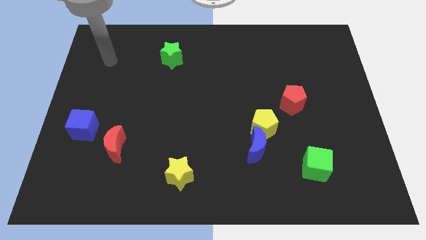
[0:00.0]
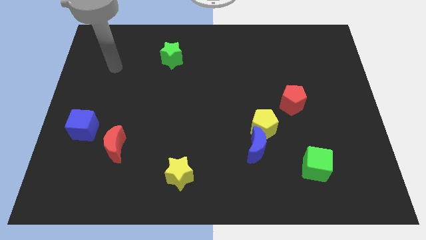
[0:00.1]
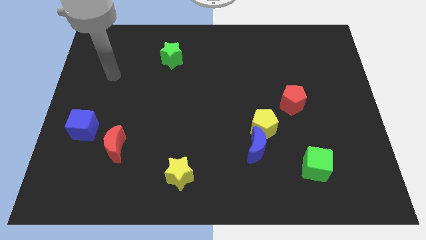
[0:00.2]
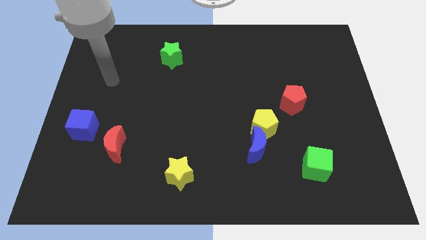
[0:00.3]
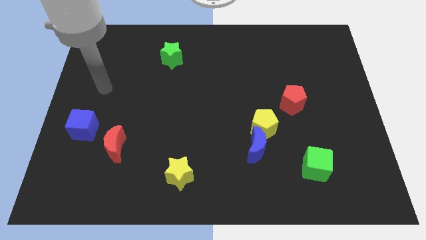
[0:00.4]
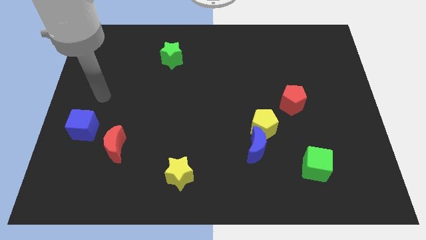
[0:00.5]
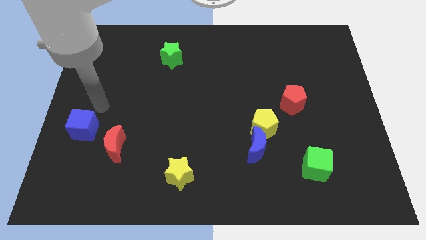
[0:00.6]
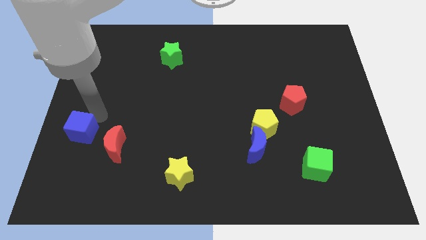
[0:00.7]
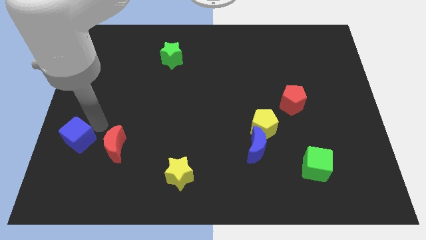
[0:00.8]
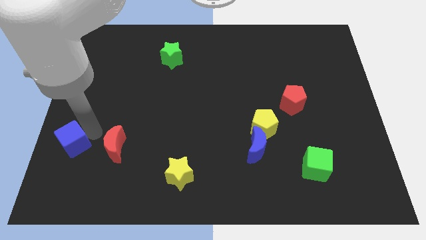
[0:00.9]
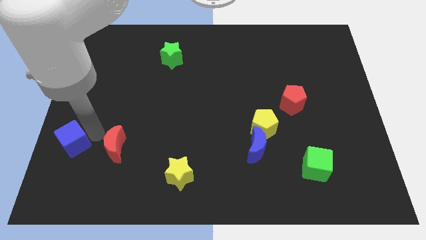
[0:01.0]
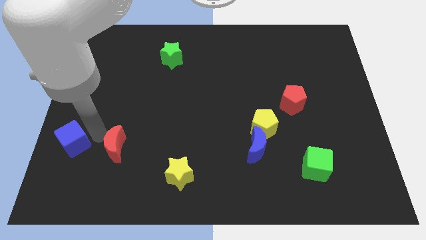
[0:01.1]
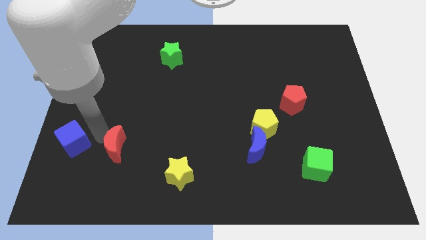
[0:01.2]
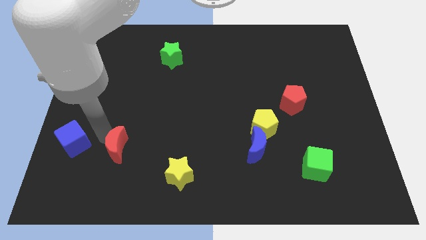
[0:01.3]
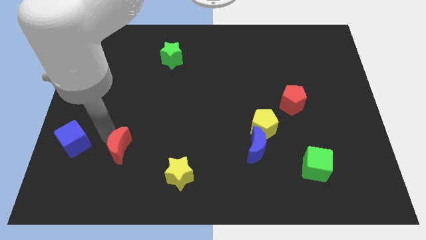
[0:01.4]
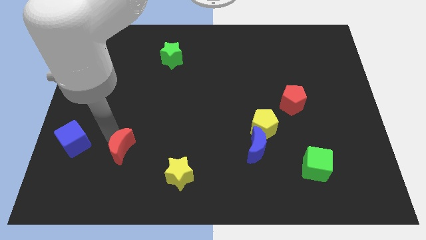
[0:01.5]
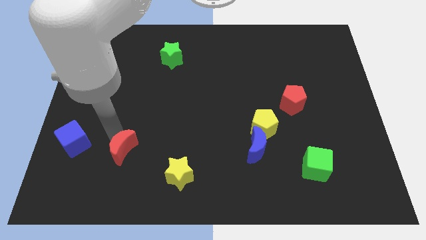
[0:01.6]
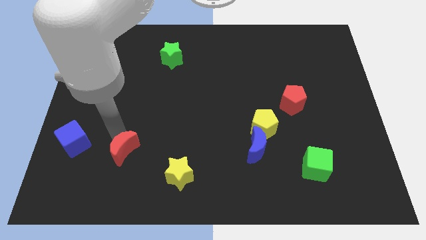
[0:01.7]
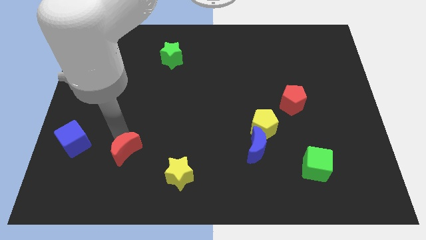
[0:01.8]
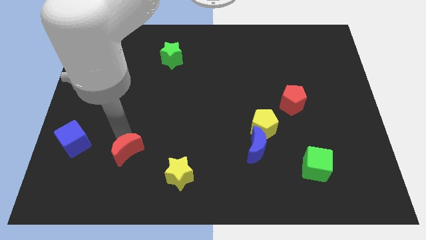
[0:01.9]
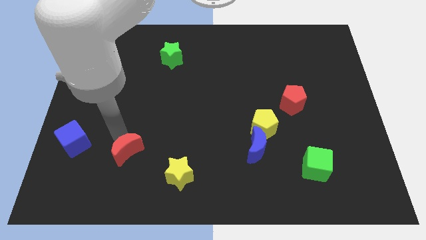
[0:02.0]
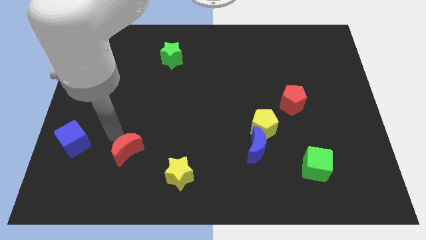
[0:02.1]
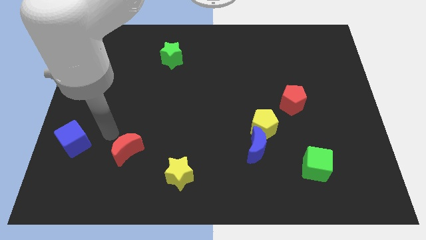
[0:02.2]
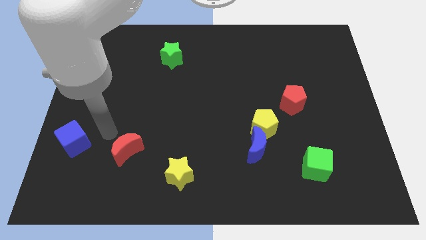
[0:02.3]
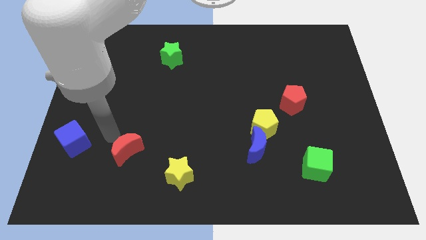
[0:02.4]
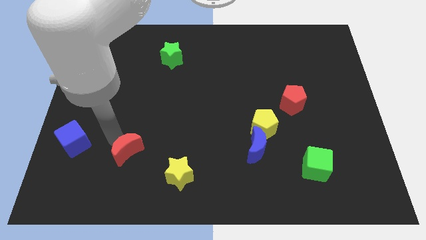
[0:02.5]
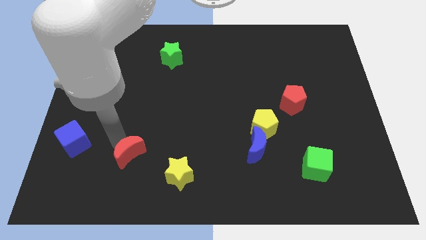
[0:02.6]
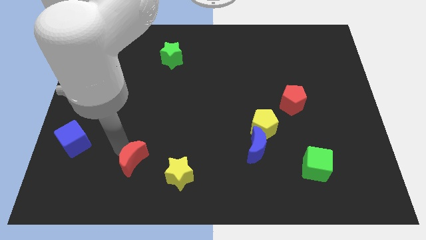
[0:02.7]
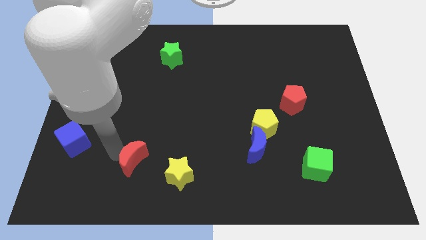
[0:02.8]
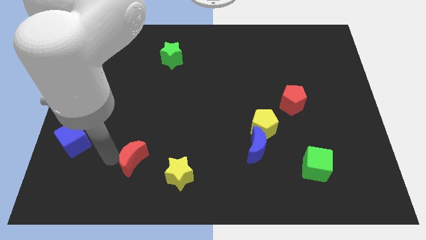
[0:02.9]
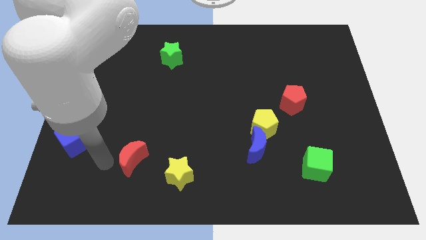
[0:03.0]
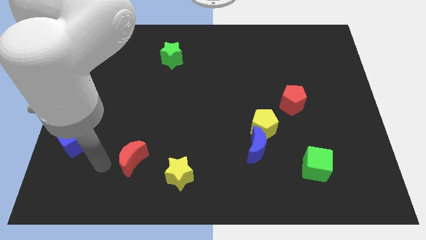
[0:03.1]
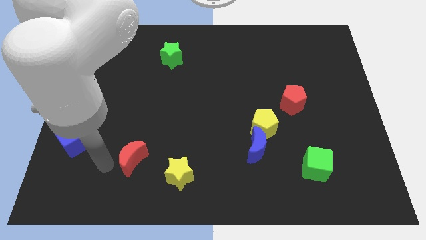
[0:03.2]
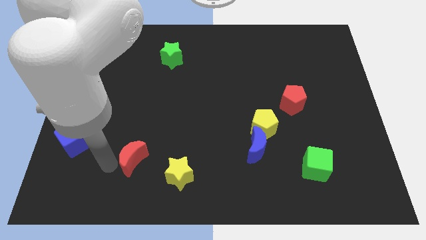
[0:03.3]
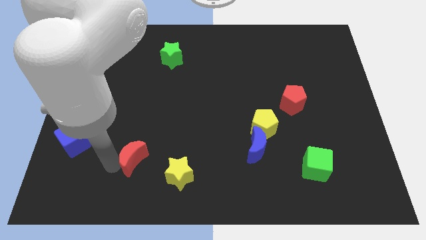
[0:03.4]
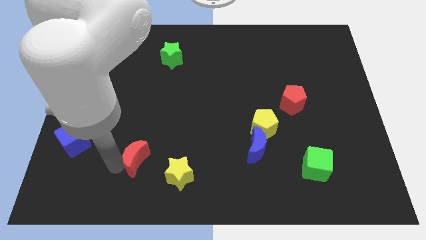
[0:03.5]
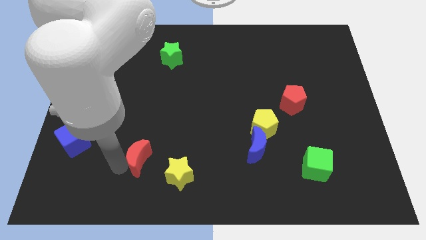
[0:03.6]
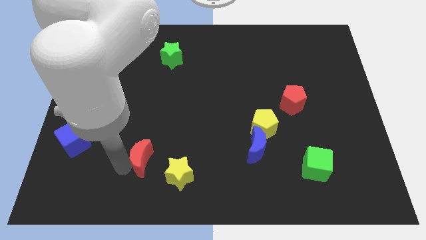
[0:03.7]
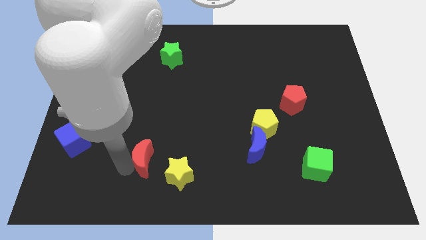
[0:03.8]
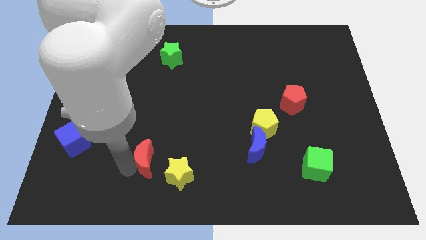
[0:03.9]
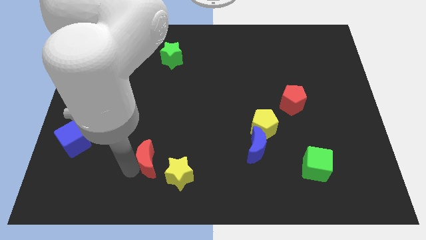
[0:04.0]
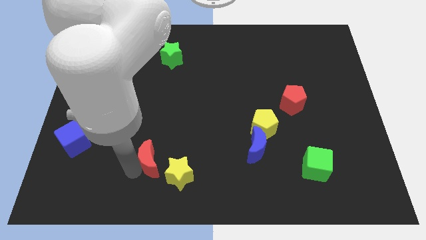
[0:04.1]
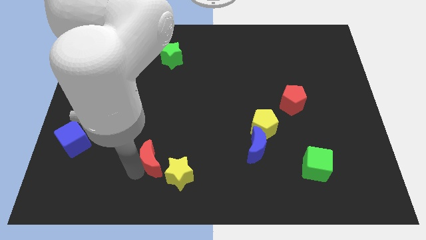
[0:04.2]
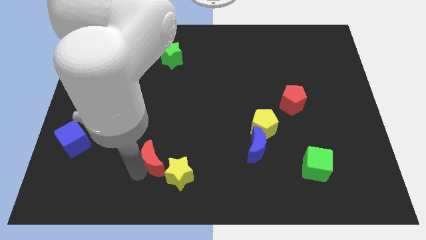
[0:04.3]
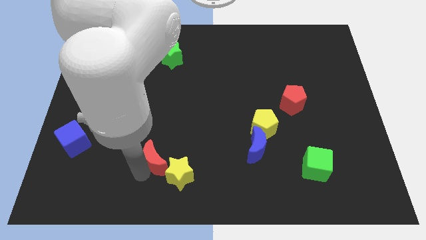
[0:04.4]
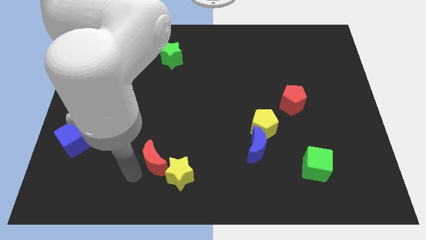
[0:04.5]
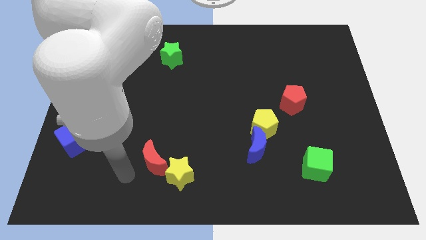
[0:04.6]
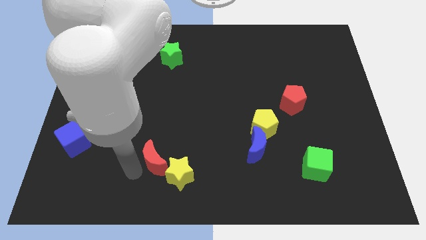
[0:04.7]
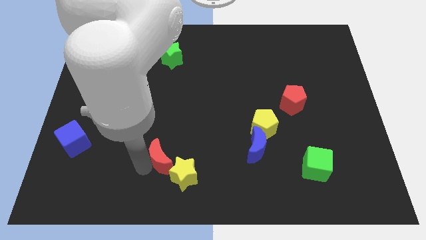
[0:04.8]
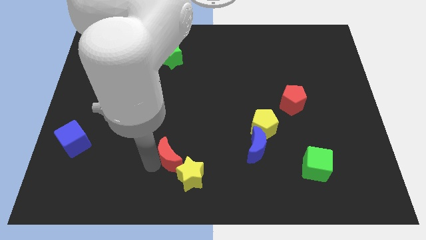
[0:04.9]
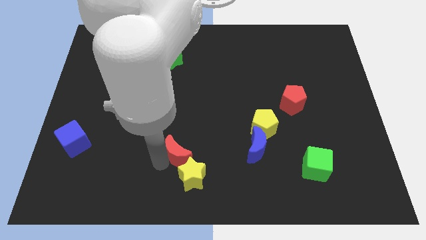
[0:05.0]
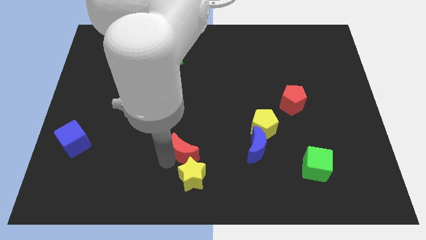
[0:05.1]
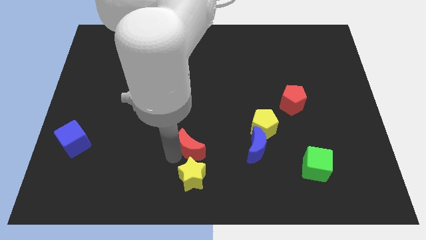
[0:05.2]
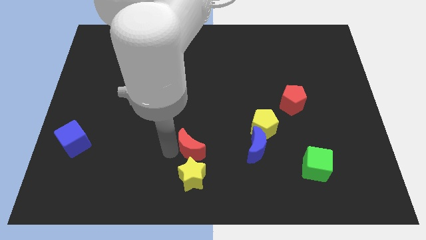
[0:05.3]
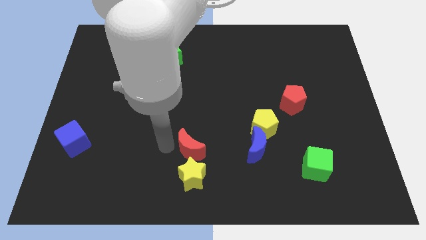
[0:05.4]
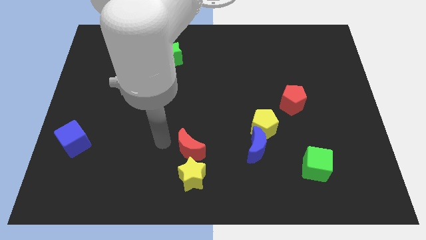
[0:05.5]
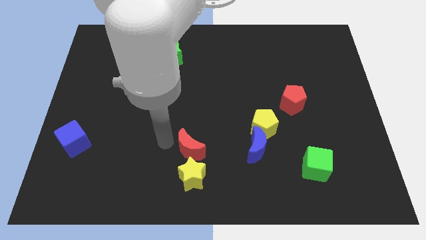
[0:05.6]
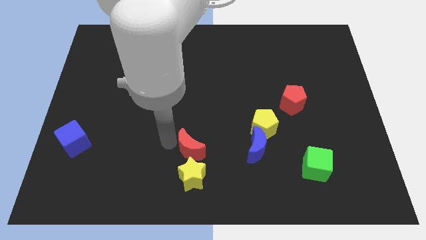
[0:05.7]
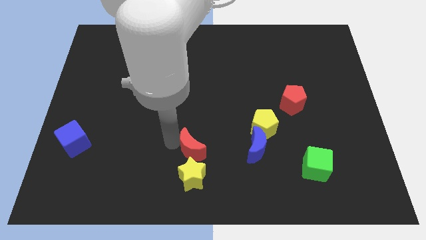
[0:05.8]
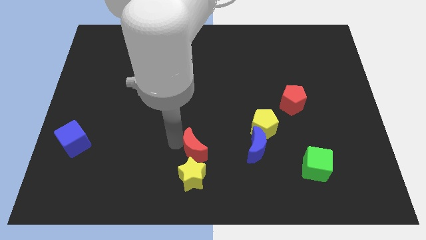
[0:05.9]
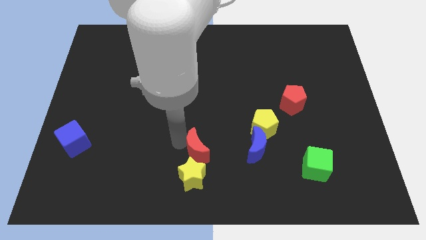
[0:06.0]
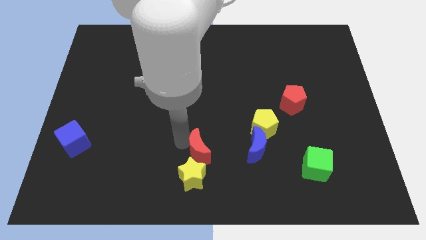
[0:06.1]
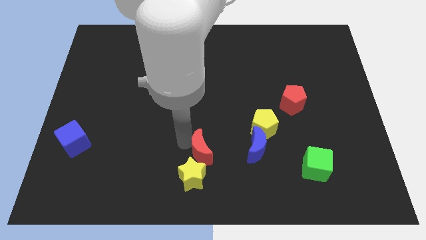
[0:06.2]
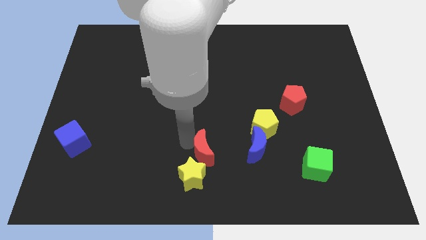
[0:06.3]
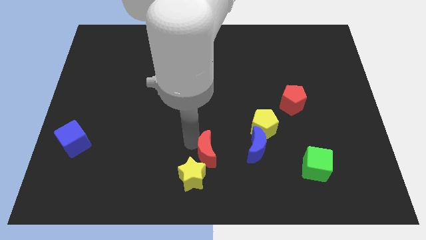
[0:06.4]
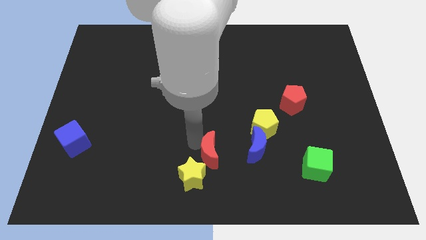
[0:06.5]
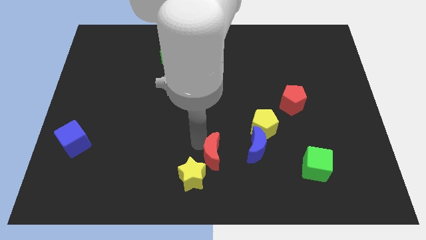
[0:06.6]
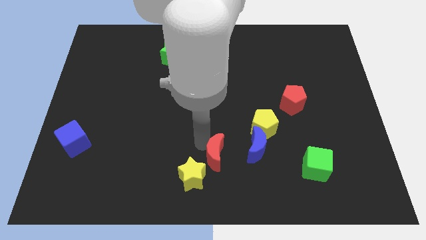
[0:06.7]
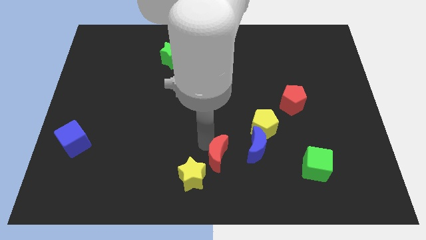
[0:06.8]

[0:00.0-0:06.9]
push the red moon to the bottom left of the blue moon
